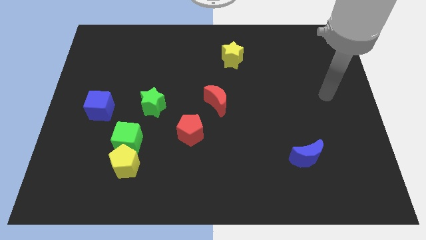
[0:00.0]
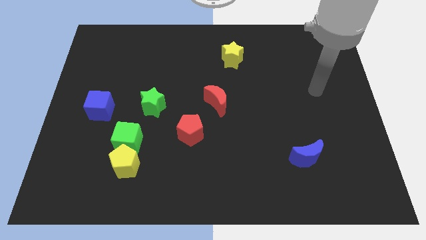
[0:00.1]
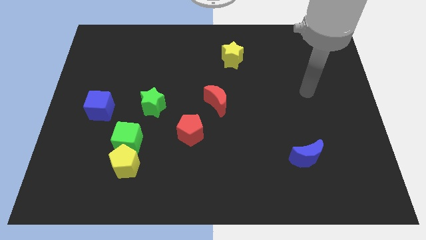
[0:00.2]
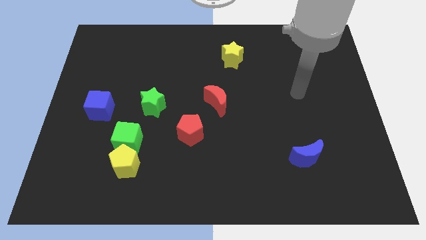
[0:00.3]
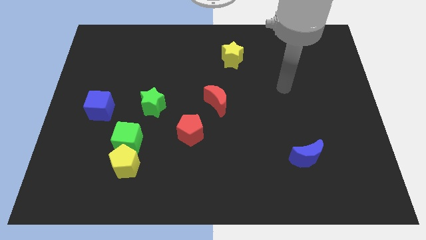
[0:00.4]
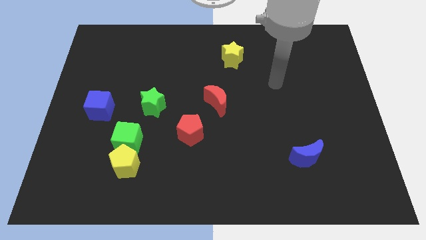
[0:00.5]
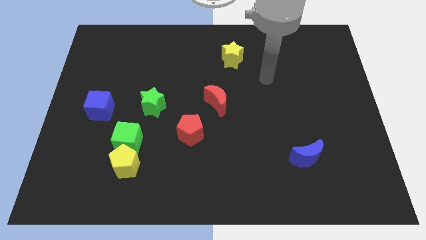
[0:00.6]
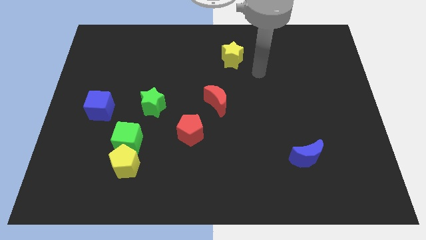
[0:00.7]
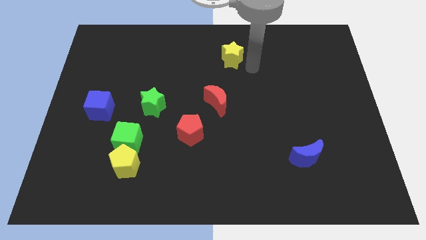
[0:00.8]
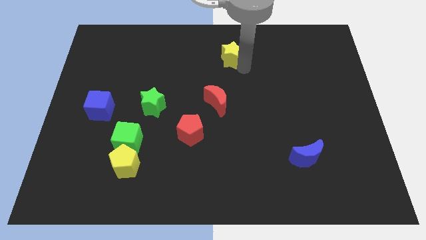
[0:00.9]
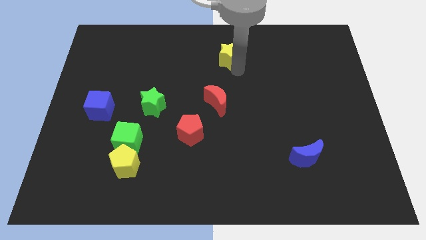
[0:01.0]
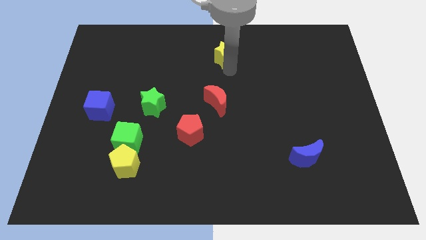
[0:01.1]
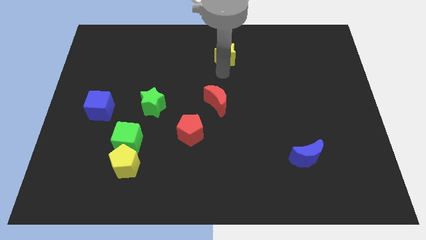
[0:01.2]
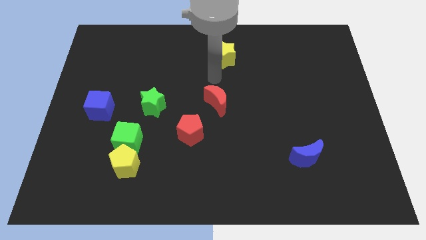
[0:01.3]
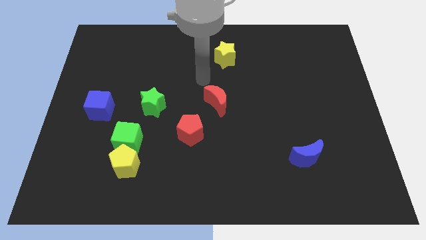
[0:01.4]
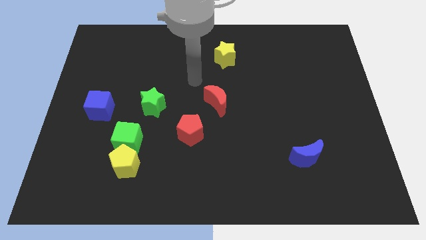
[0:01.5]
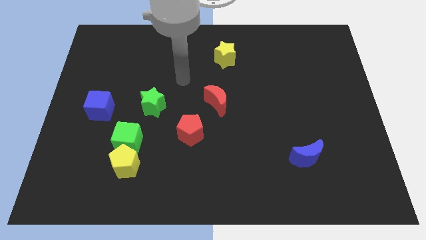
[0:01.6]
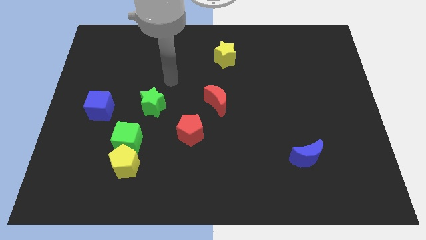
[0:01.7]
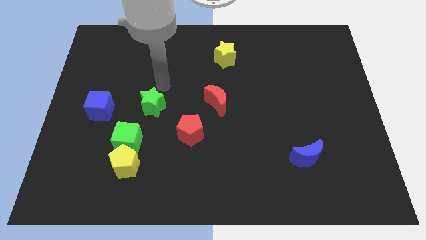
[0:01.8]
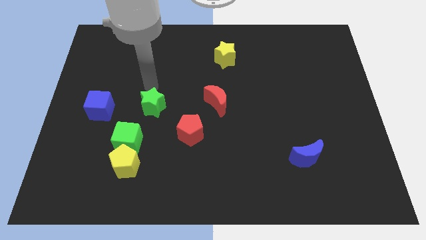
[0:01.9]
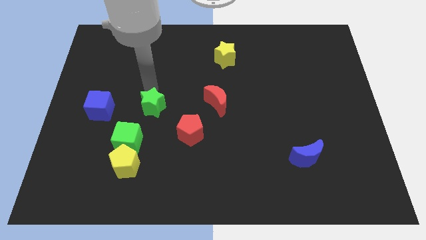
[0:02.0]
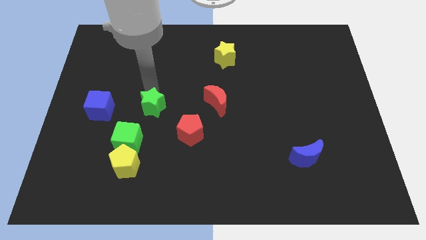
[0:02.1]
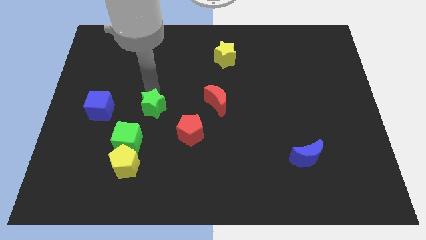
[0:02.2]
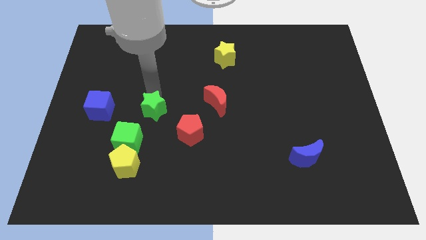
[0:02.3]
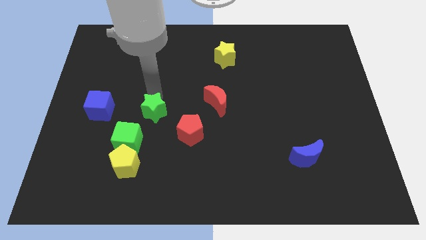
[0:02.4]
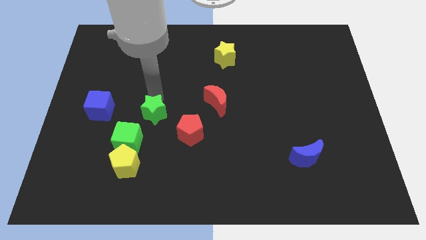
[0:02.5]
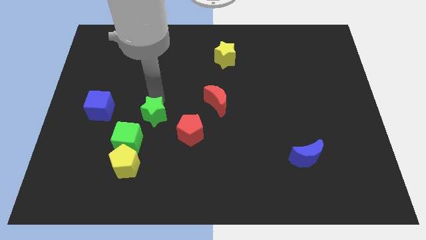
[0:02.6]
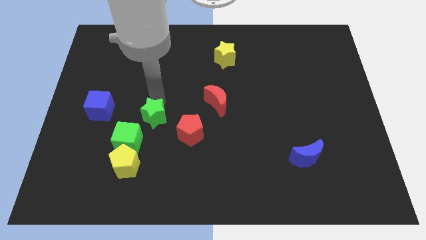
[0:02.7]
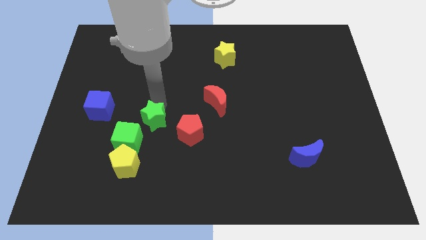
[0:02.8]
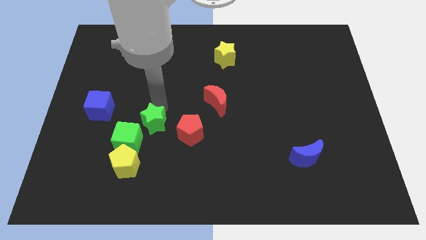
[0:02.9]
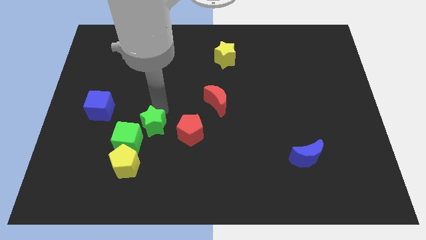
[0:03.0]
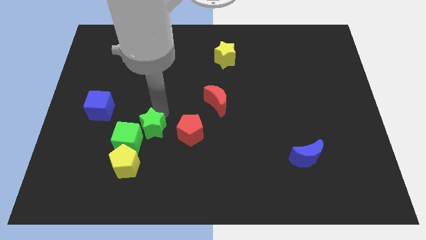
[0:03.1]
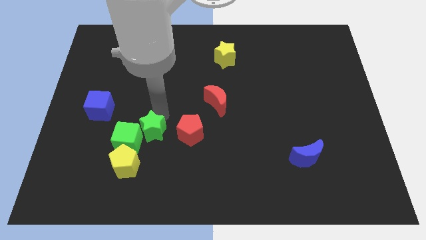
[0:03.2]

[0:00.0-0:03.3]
move the green star downwards a little bit

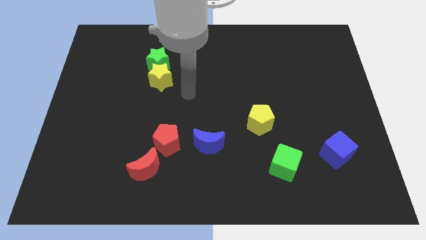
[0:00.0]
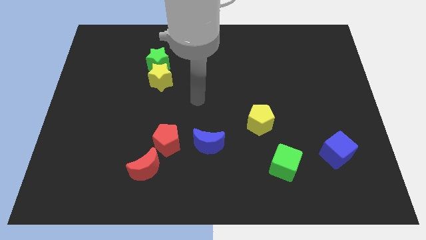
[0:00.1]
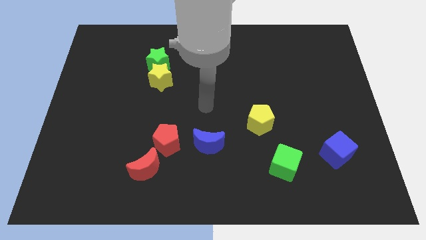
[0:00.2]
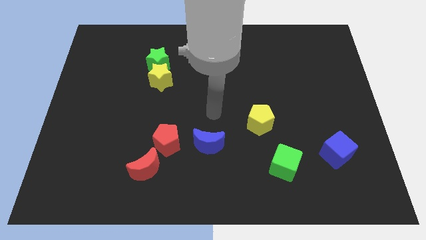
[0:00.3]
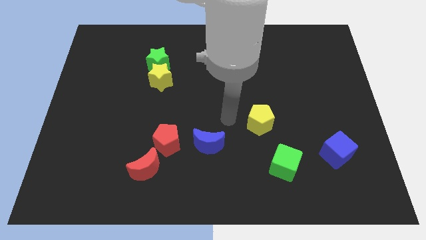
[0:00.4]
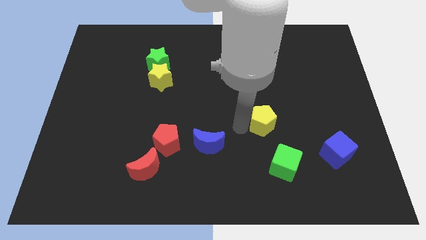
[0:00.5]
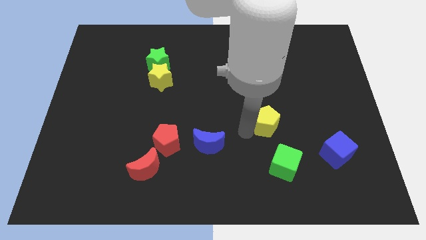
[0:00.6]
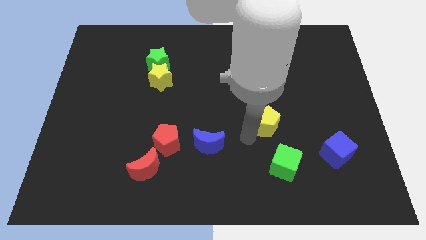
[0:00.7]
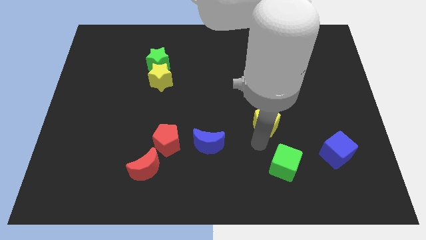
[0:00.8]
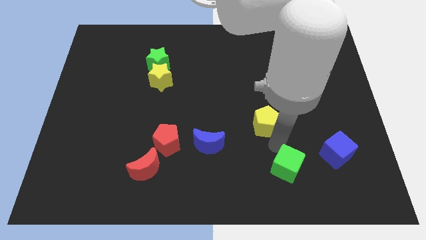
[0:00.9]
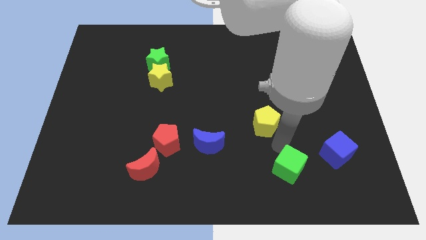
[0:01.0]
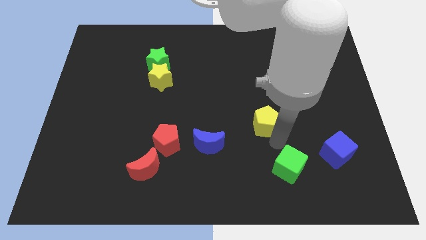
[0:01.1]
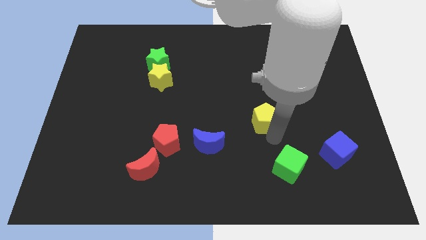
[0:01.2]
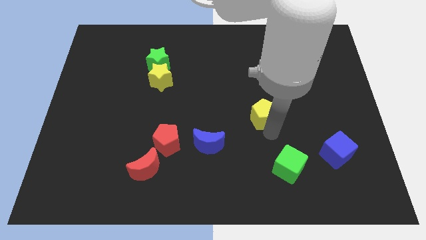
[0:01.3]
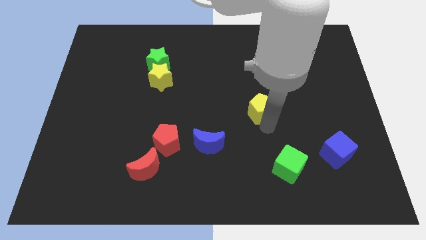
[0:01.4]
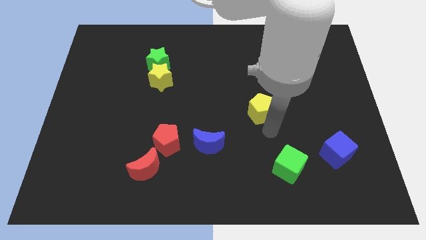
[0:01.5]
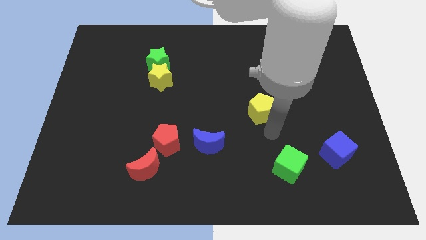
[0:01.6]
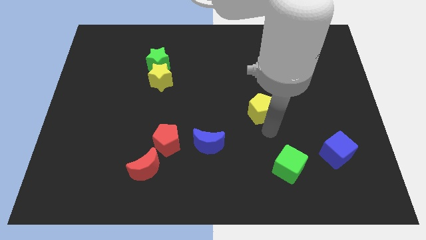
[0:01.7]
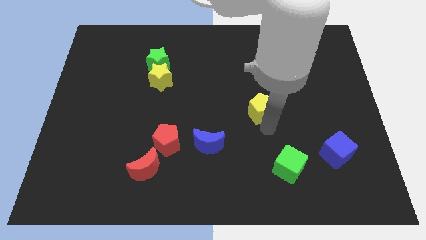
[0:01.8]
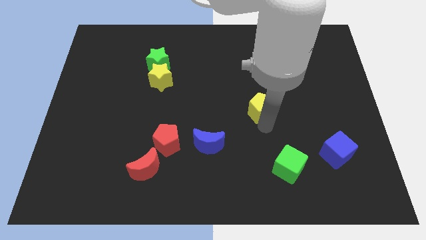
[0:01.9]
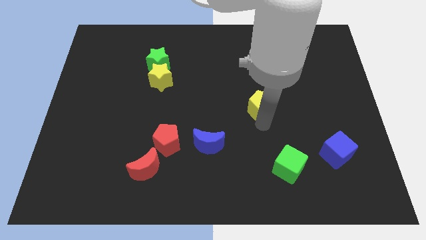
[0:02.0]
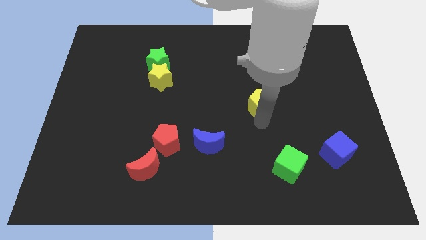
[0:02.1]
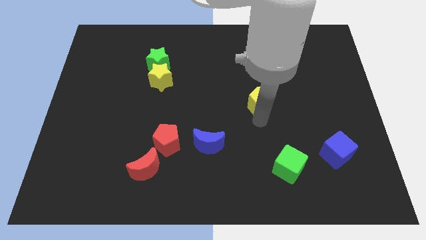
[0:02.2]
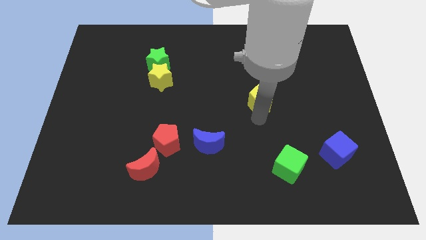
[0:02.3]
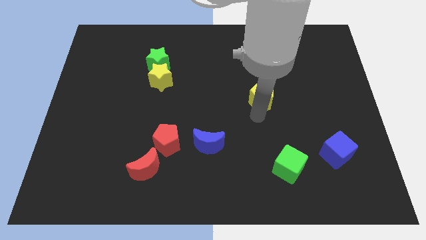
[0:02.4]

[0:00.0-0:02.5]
slightly move the yellow pentagon up

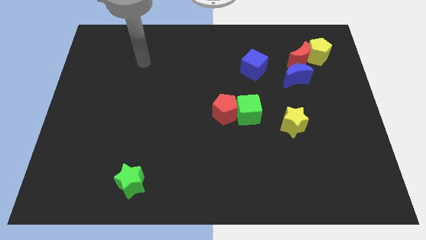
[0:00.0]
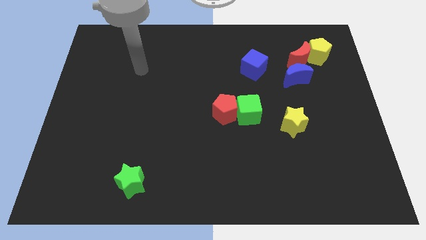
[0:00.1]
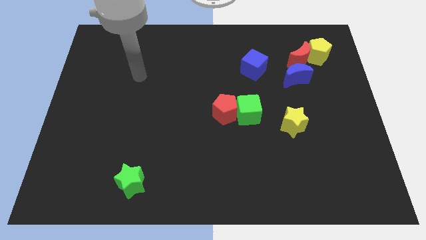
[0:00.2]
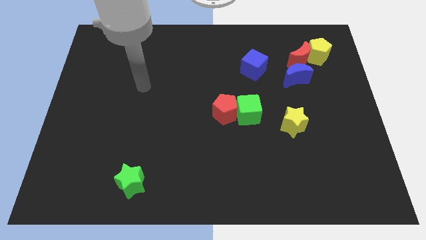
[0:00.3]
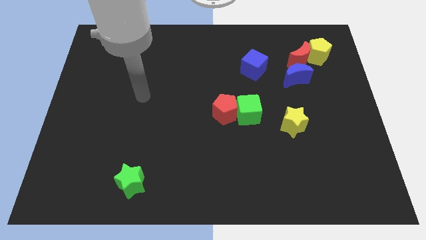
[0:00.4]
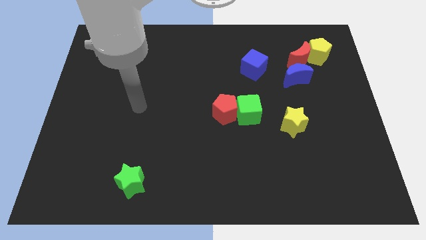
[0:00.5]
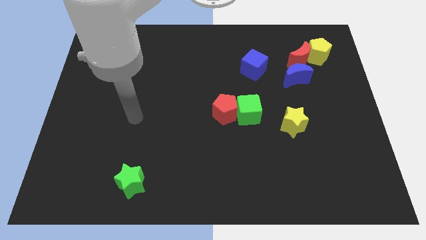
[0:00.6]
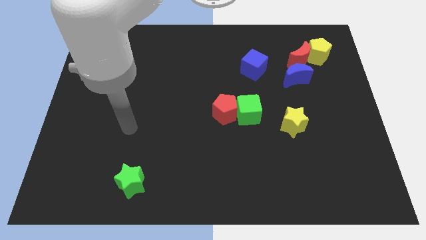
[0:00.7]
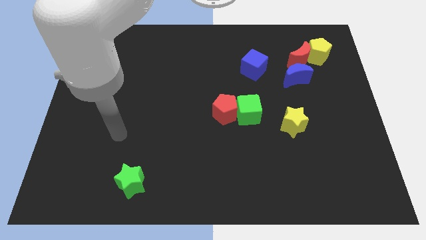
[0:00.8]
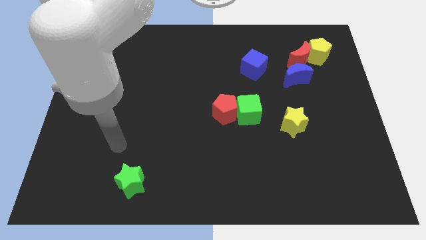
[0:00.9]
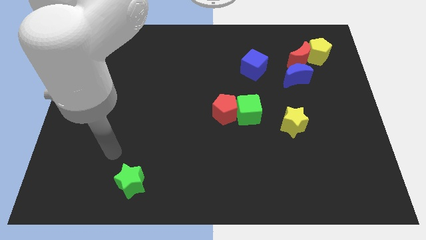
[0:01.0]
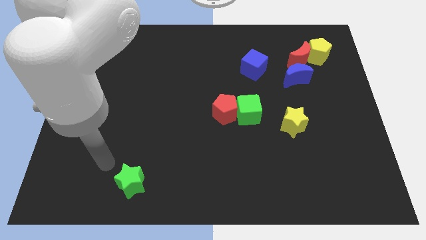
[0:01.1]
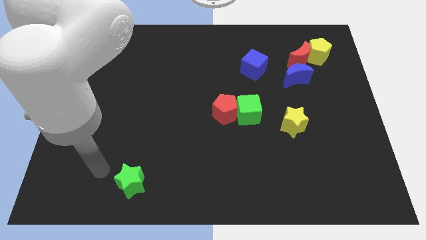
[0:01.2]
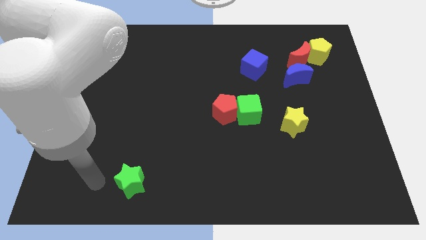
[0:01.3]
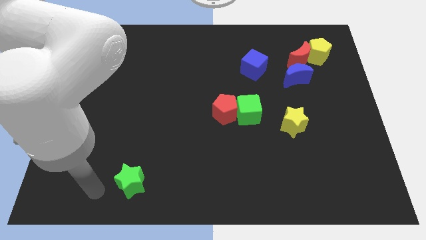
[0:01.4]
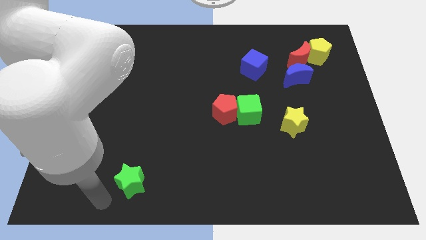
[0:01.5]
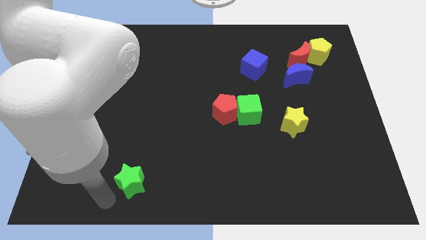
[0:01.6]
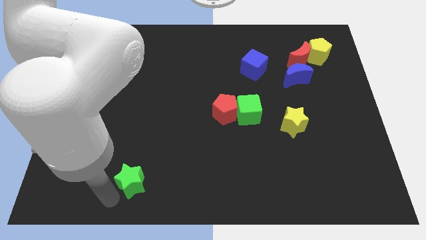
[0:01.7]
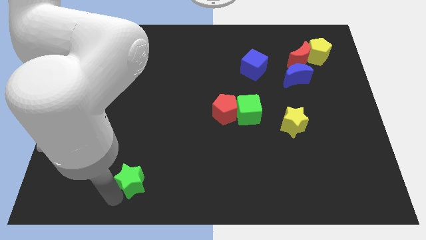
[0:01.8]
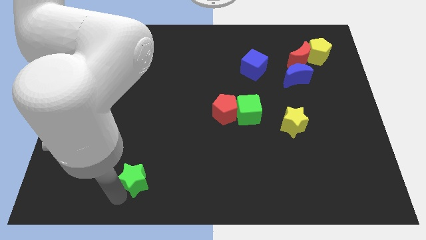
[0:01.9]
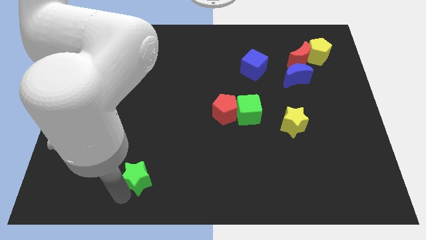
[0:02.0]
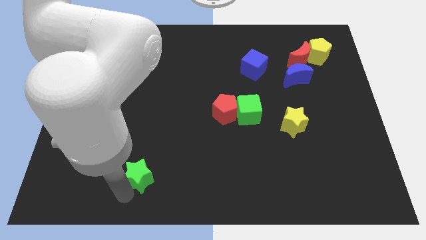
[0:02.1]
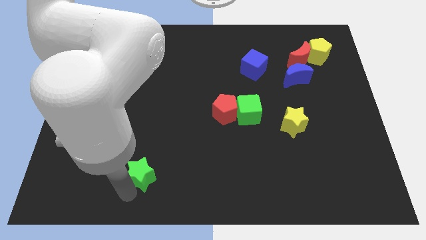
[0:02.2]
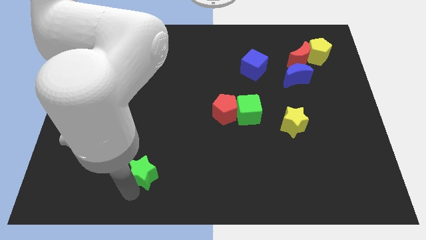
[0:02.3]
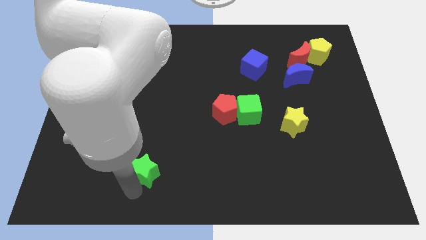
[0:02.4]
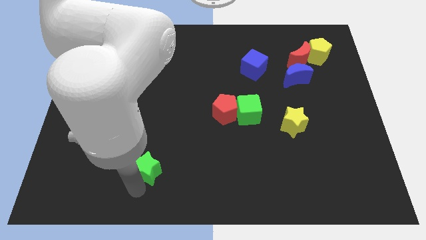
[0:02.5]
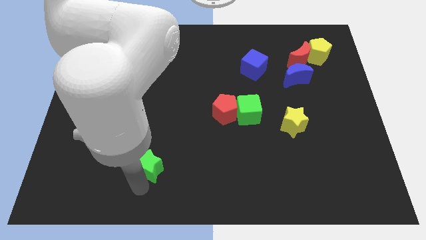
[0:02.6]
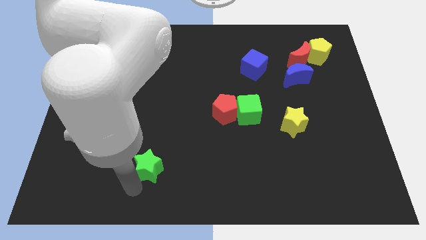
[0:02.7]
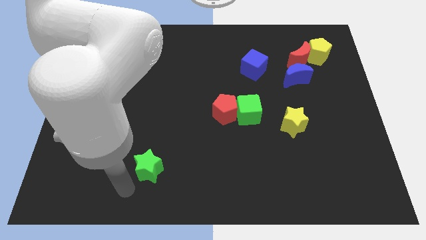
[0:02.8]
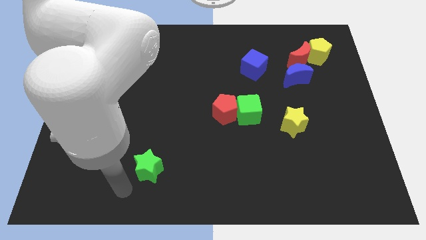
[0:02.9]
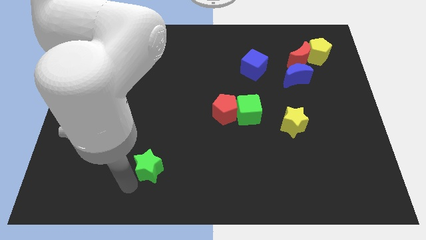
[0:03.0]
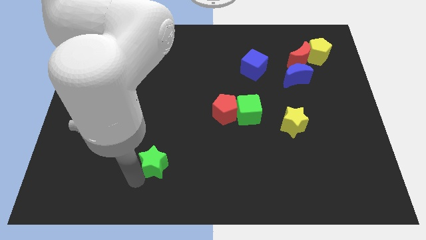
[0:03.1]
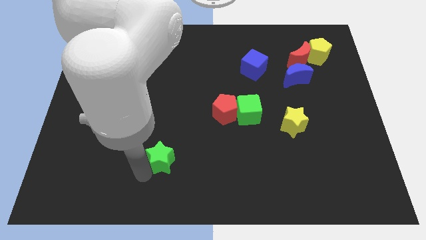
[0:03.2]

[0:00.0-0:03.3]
move the green star up and to the right diagonally somewhat
